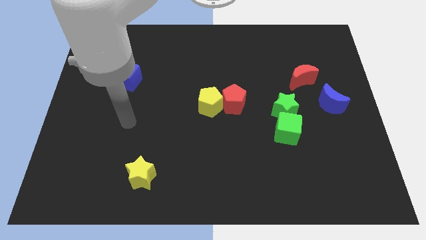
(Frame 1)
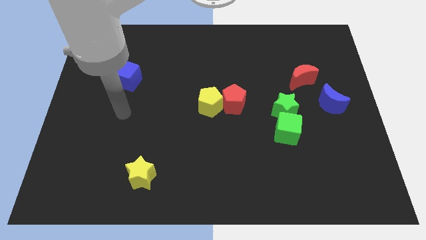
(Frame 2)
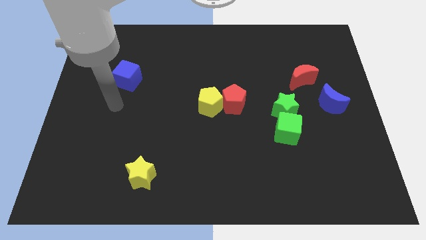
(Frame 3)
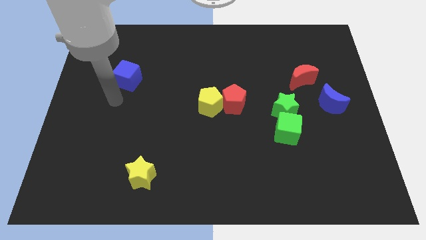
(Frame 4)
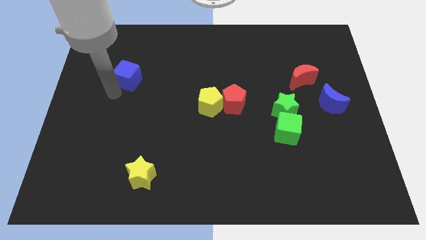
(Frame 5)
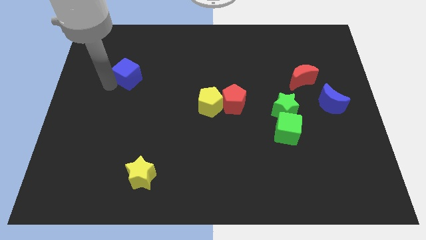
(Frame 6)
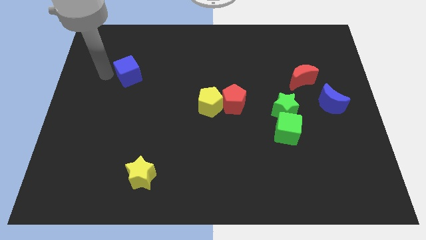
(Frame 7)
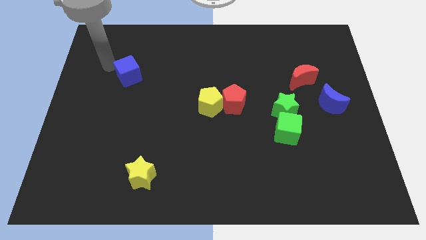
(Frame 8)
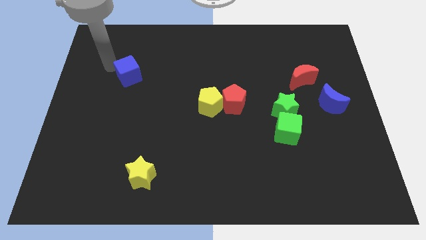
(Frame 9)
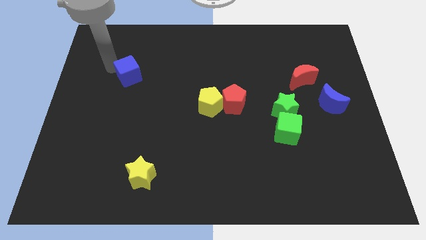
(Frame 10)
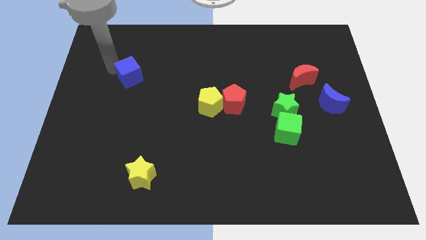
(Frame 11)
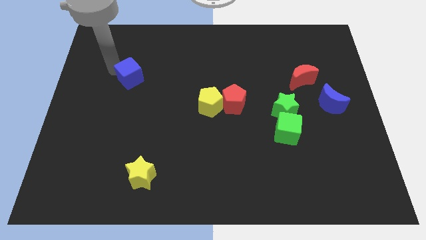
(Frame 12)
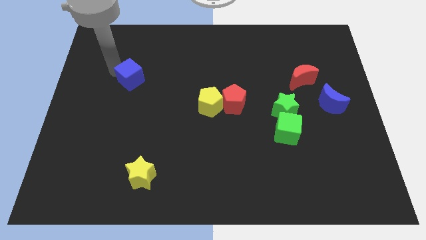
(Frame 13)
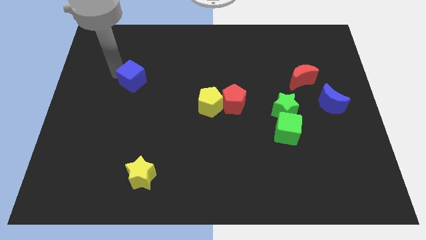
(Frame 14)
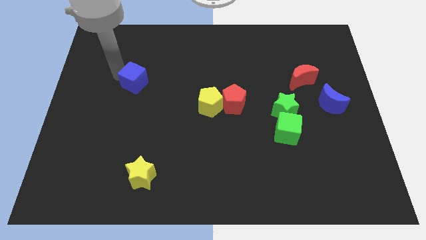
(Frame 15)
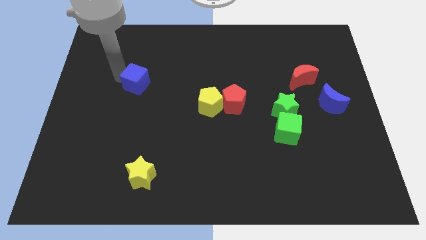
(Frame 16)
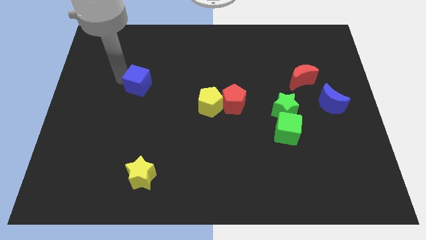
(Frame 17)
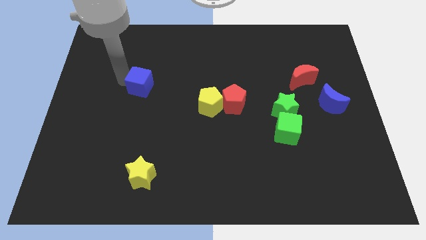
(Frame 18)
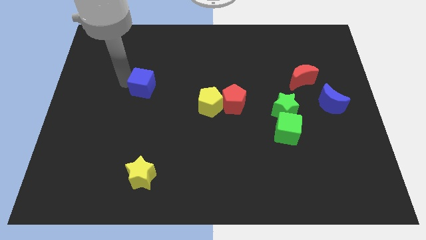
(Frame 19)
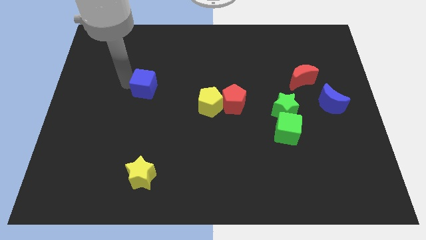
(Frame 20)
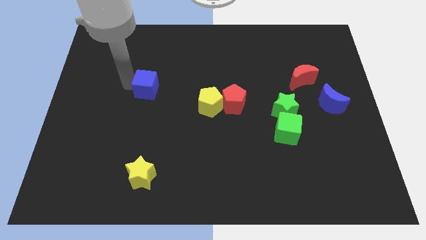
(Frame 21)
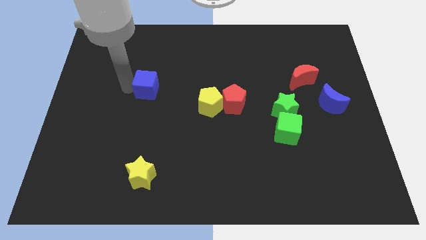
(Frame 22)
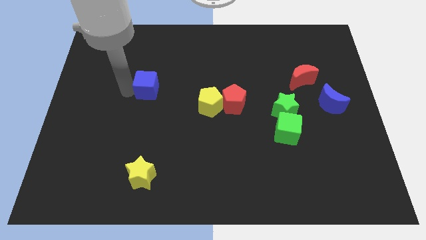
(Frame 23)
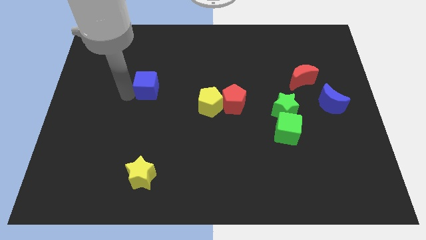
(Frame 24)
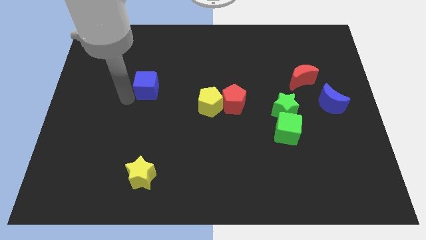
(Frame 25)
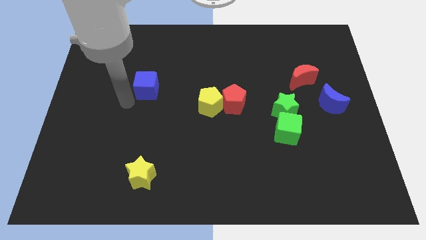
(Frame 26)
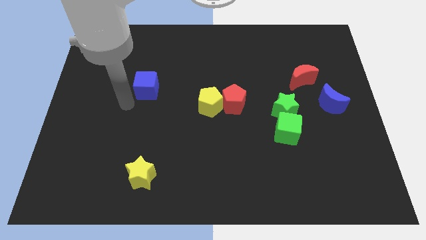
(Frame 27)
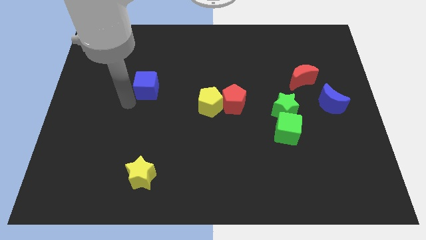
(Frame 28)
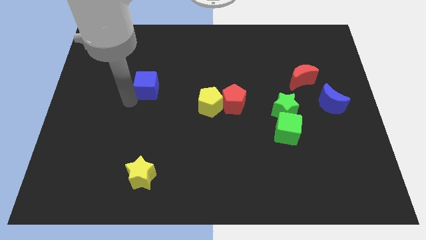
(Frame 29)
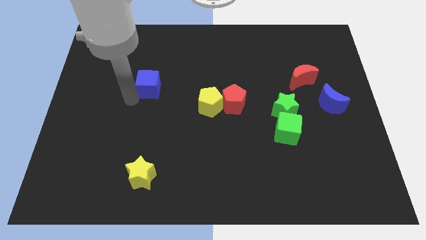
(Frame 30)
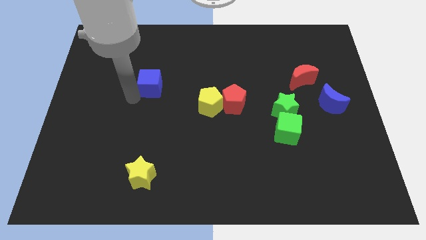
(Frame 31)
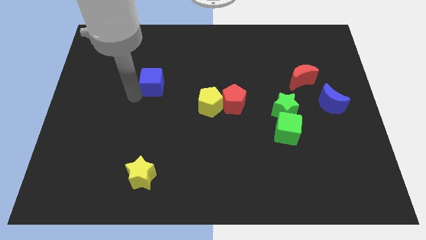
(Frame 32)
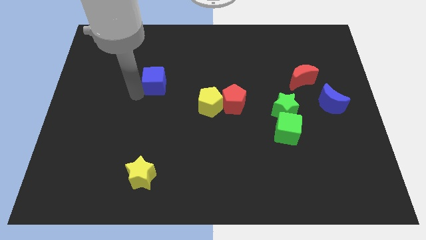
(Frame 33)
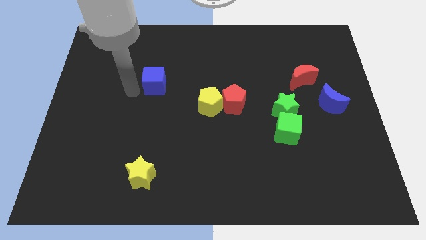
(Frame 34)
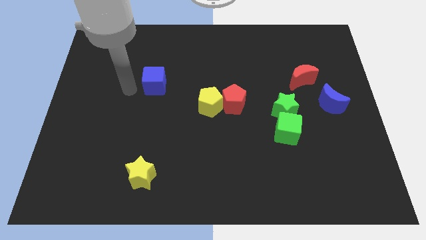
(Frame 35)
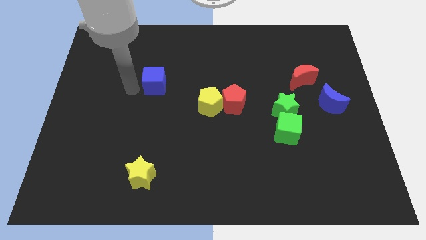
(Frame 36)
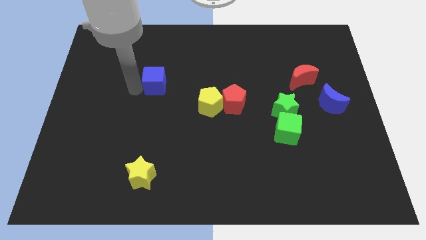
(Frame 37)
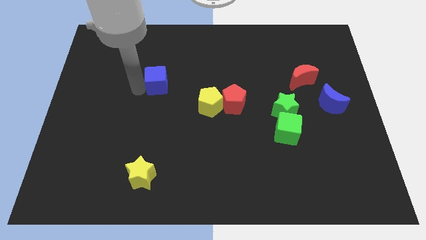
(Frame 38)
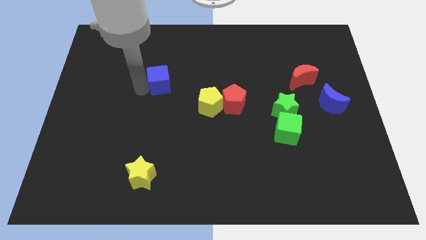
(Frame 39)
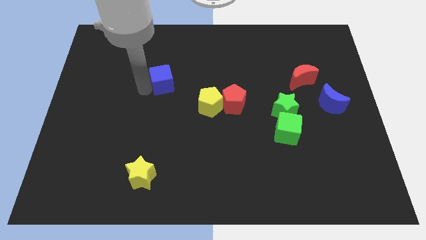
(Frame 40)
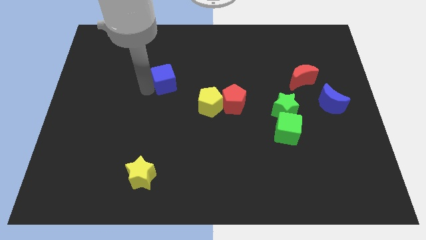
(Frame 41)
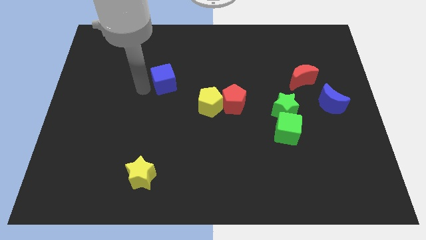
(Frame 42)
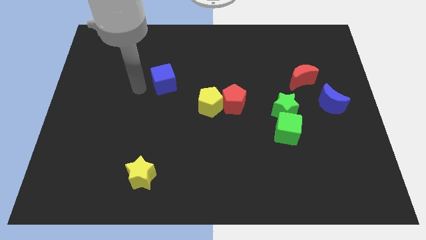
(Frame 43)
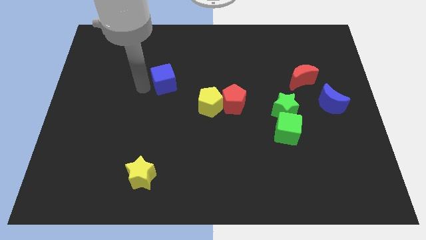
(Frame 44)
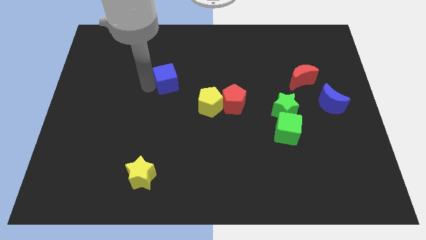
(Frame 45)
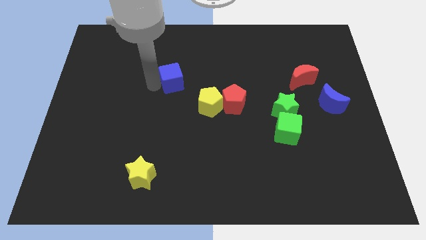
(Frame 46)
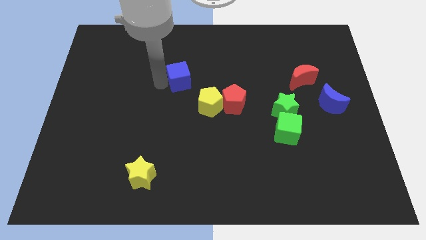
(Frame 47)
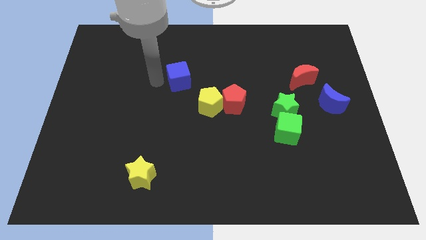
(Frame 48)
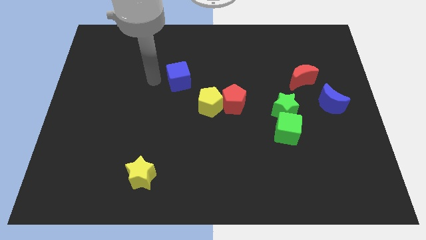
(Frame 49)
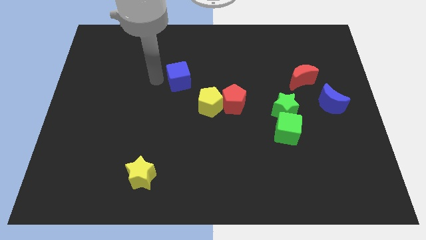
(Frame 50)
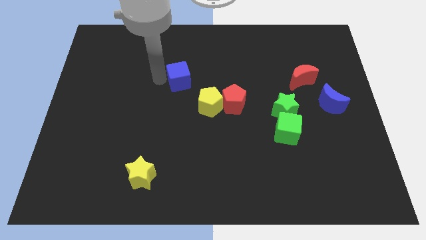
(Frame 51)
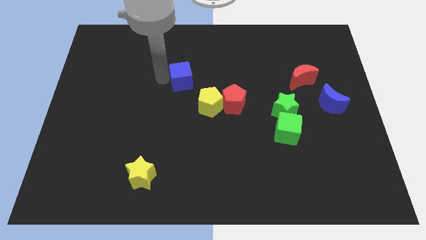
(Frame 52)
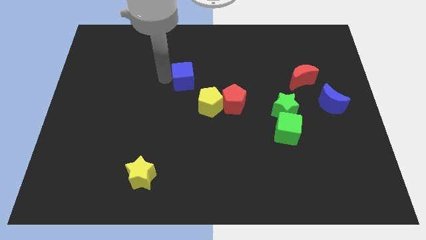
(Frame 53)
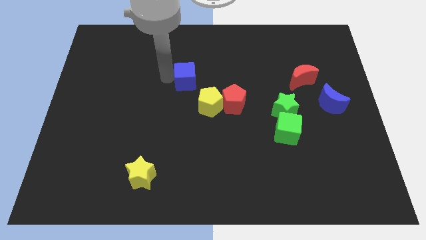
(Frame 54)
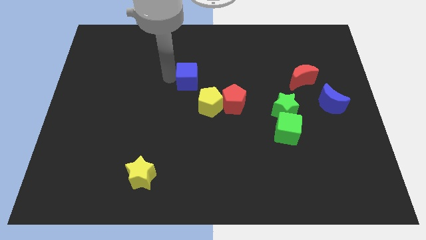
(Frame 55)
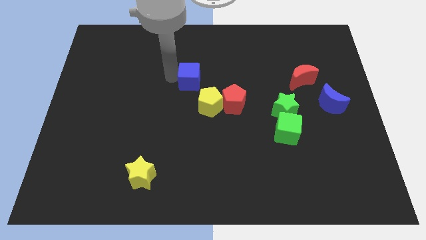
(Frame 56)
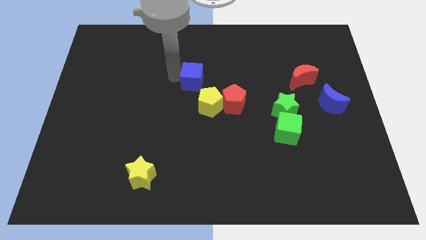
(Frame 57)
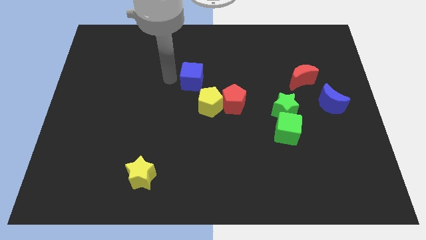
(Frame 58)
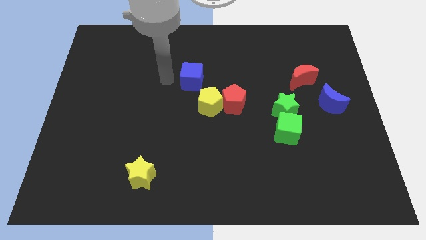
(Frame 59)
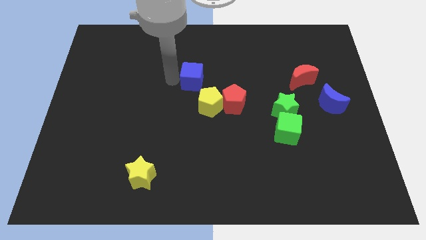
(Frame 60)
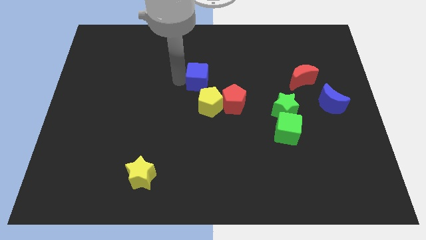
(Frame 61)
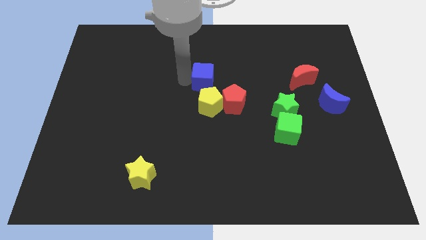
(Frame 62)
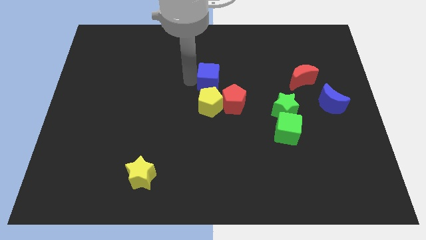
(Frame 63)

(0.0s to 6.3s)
push the blue cube right

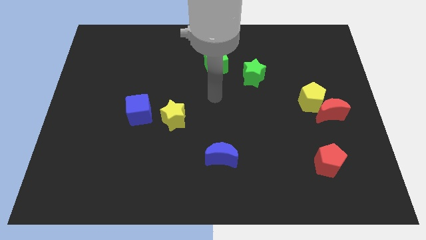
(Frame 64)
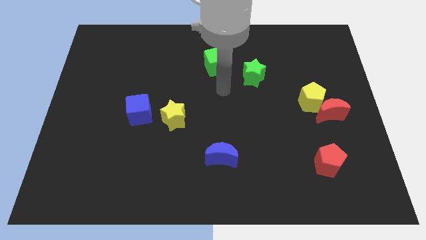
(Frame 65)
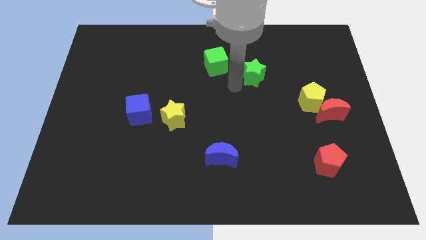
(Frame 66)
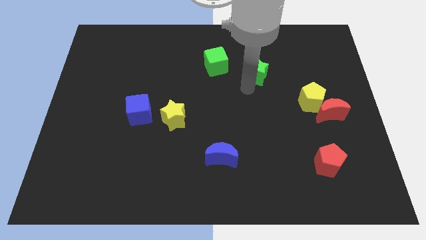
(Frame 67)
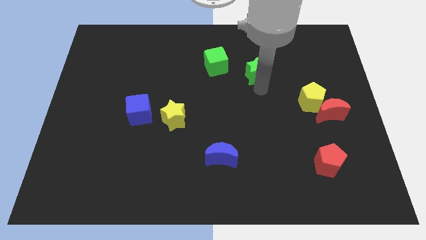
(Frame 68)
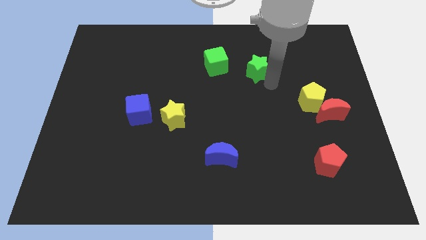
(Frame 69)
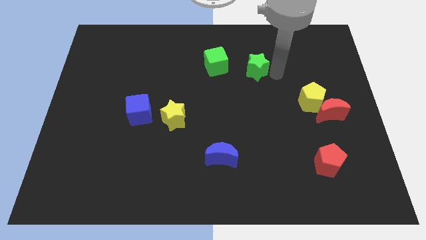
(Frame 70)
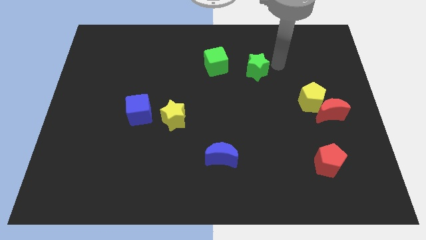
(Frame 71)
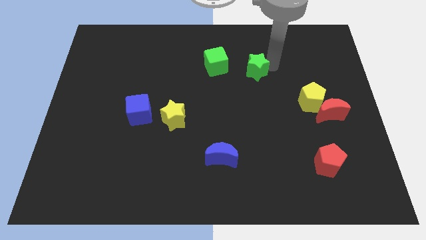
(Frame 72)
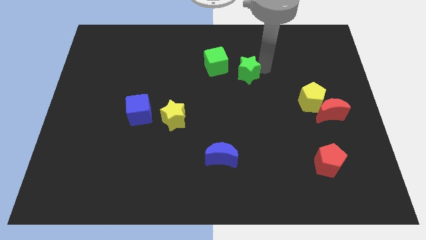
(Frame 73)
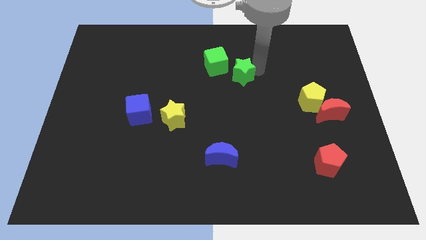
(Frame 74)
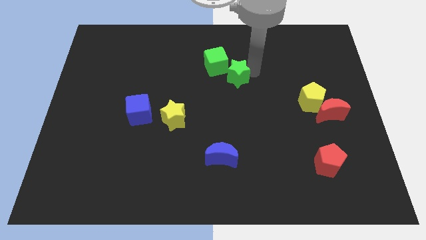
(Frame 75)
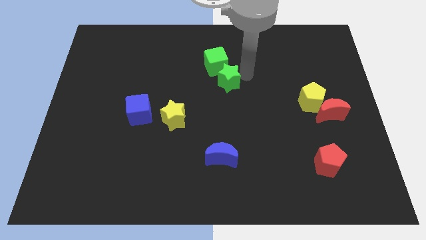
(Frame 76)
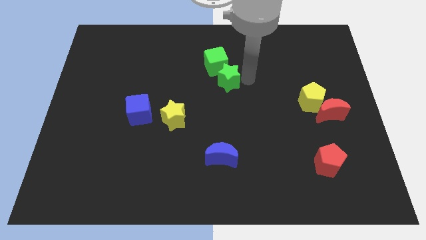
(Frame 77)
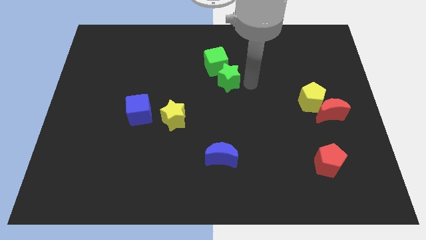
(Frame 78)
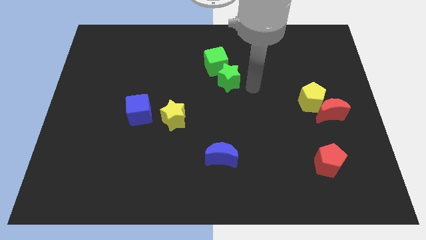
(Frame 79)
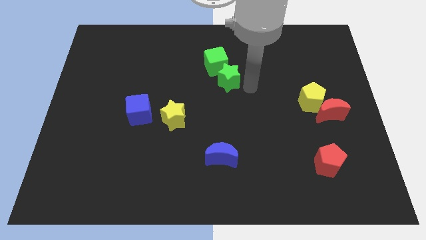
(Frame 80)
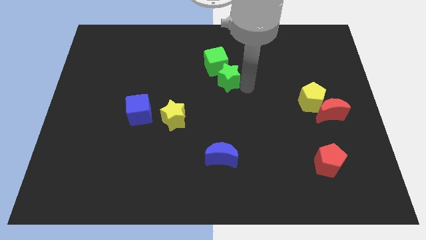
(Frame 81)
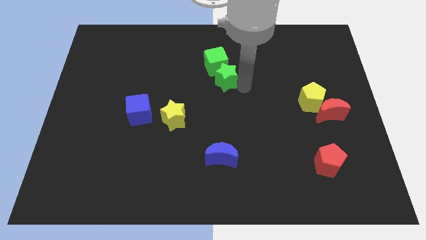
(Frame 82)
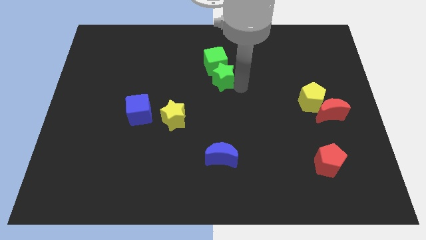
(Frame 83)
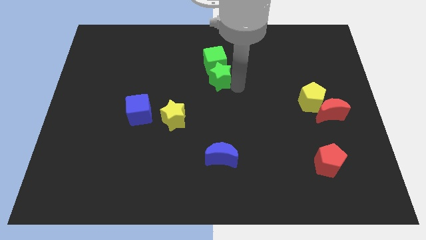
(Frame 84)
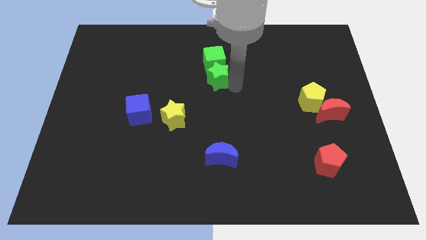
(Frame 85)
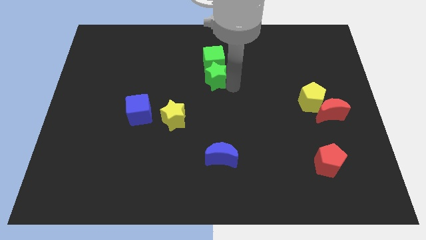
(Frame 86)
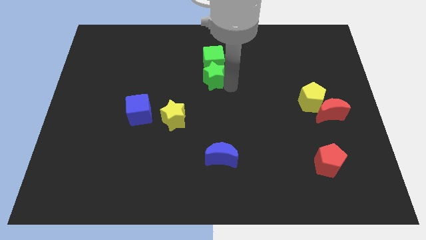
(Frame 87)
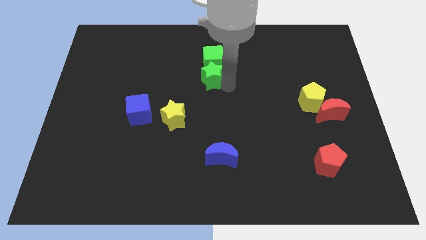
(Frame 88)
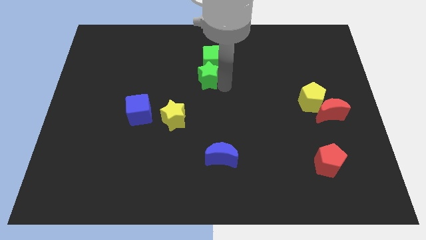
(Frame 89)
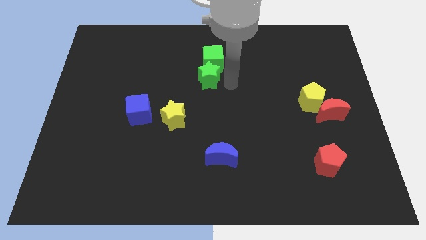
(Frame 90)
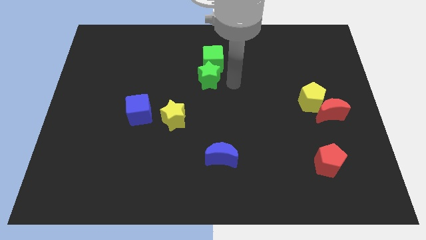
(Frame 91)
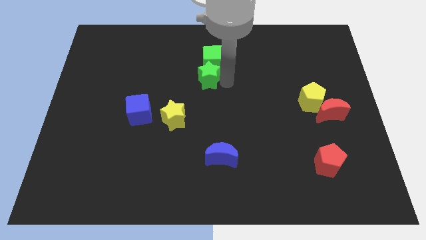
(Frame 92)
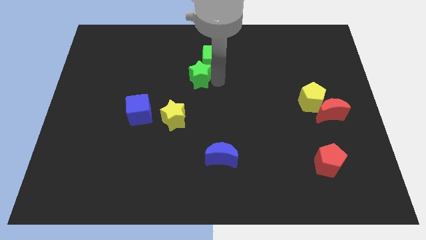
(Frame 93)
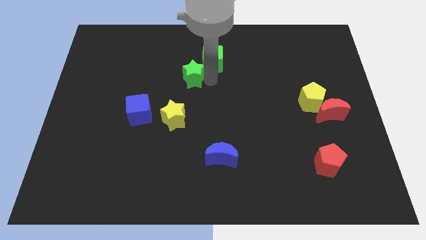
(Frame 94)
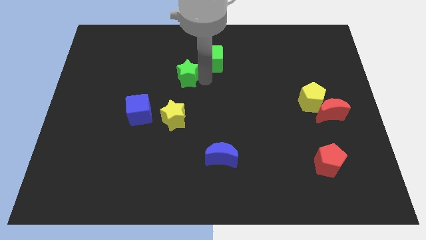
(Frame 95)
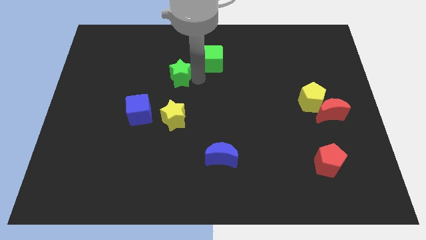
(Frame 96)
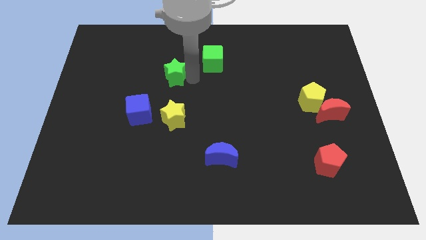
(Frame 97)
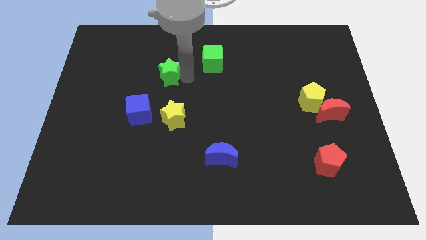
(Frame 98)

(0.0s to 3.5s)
push the green star to the left
